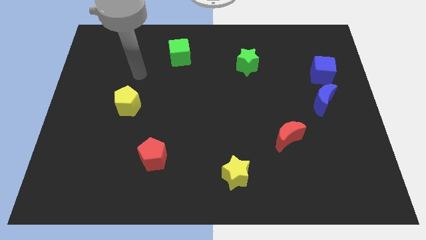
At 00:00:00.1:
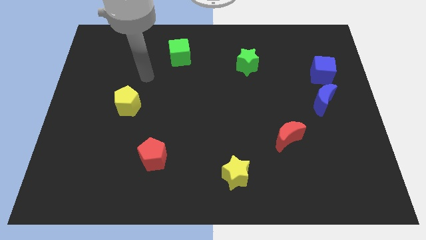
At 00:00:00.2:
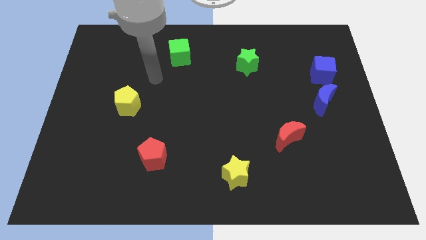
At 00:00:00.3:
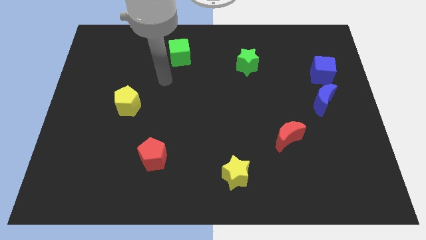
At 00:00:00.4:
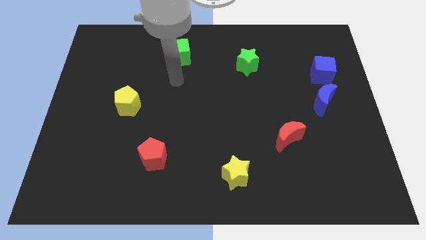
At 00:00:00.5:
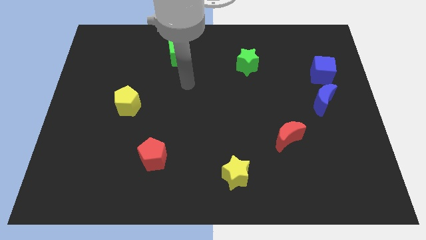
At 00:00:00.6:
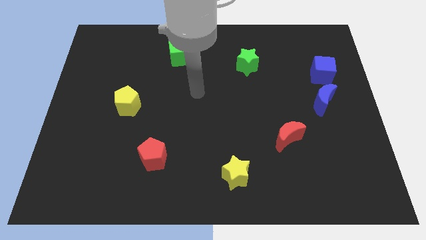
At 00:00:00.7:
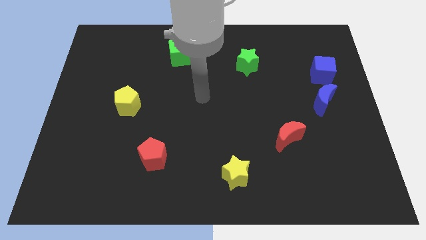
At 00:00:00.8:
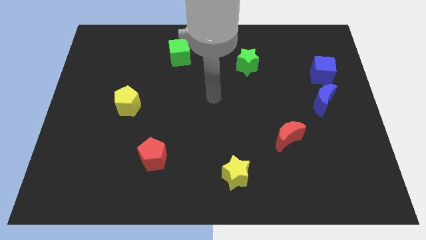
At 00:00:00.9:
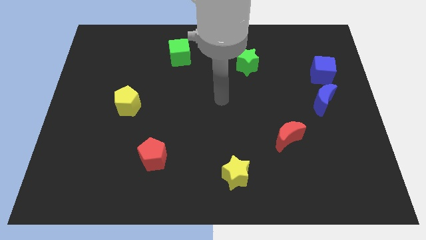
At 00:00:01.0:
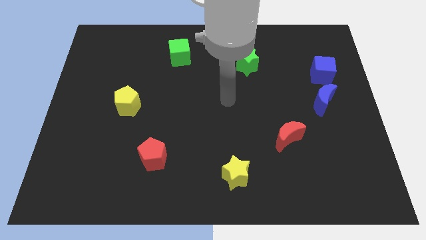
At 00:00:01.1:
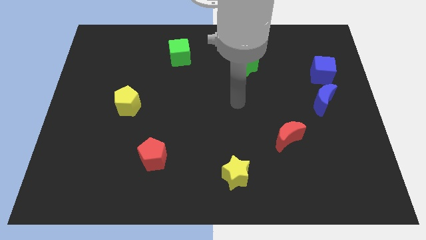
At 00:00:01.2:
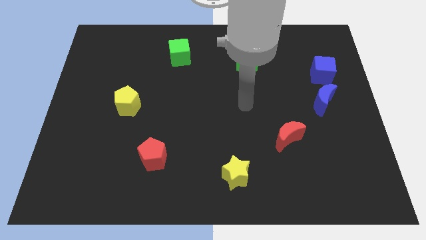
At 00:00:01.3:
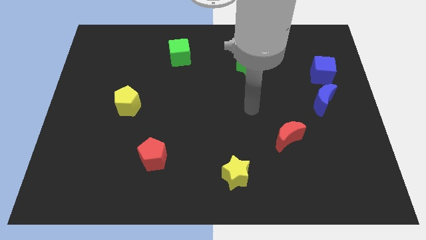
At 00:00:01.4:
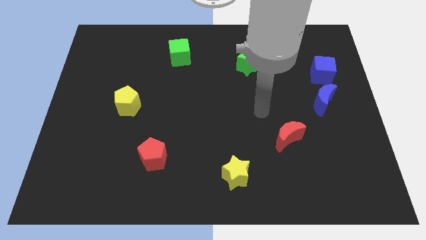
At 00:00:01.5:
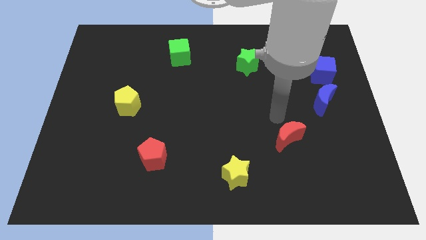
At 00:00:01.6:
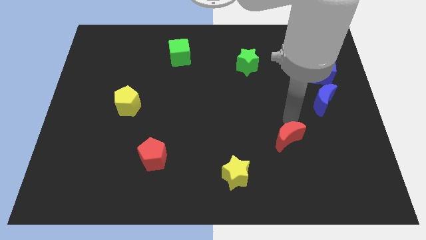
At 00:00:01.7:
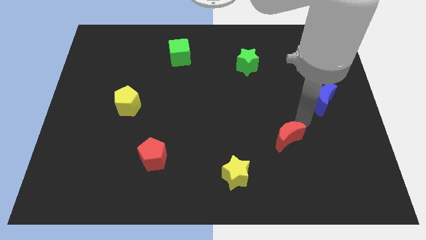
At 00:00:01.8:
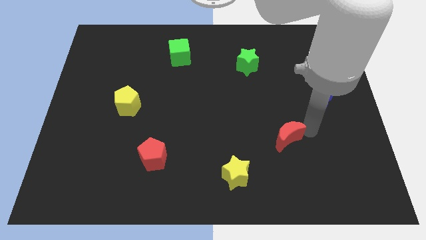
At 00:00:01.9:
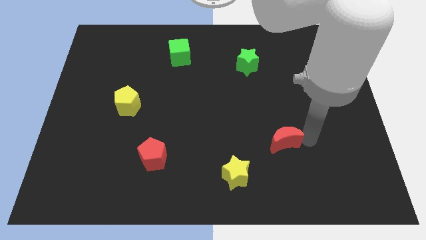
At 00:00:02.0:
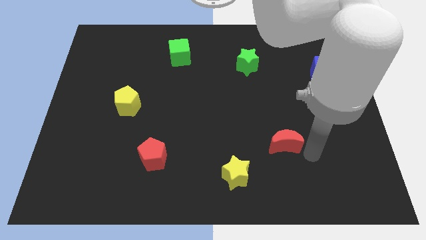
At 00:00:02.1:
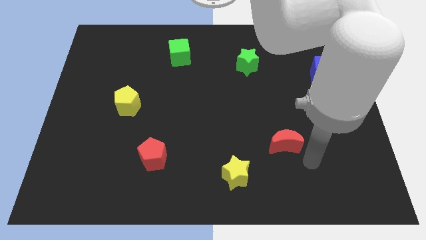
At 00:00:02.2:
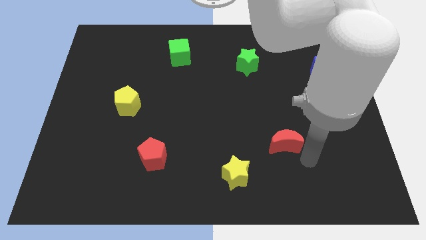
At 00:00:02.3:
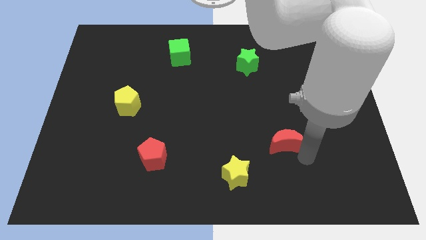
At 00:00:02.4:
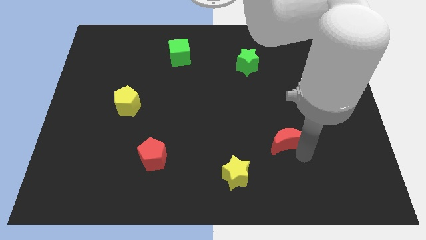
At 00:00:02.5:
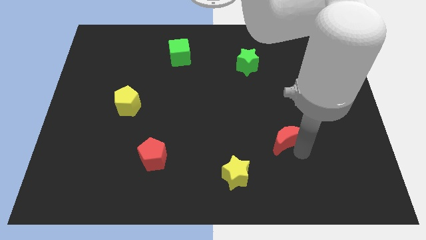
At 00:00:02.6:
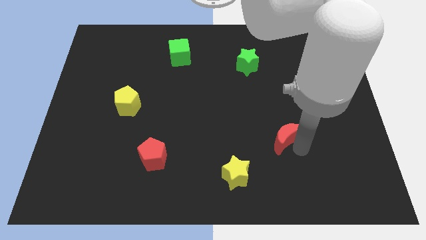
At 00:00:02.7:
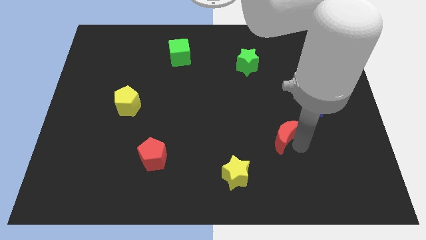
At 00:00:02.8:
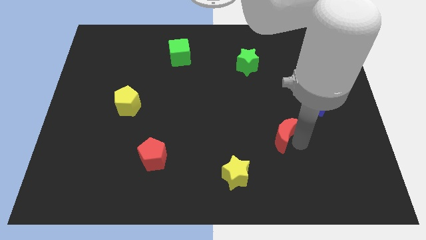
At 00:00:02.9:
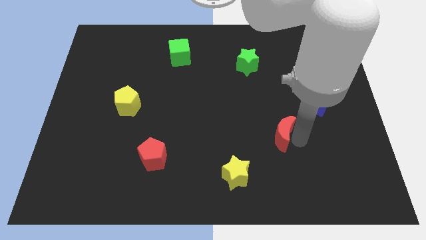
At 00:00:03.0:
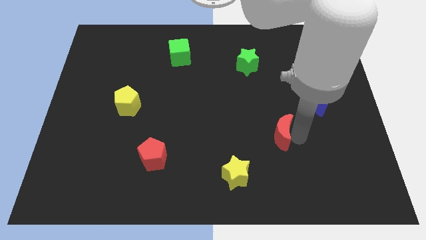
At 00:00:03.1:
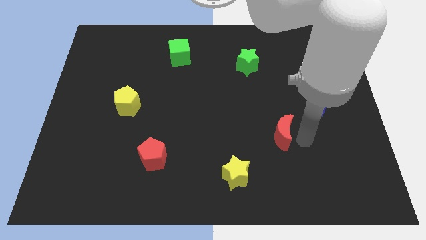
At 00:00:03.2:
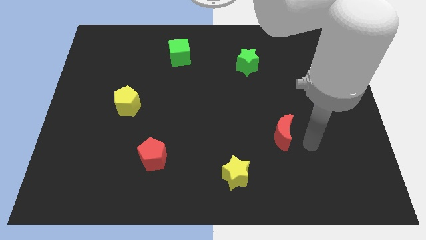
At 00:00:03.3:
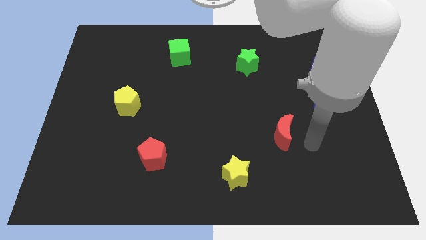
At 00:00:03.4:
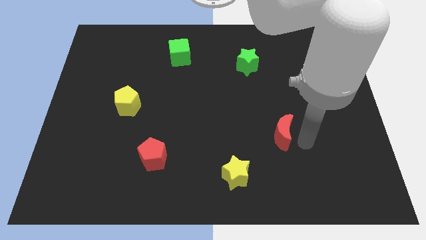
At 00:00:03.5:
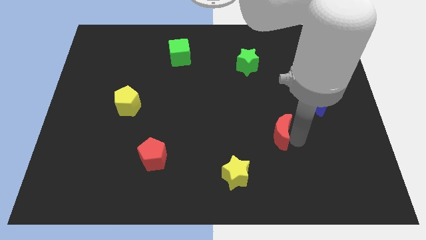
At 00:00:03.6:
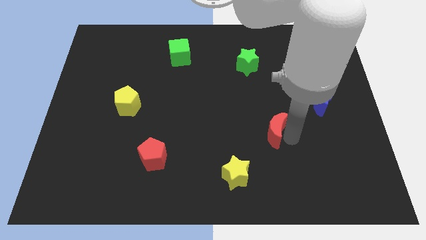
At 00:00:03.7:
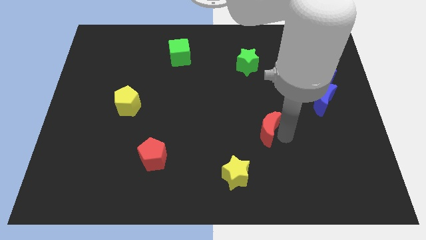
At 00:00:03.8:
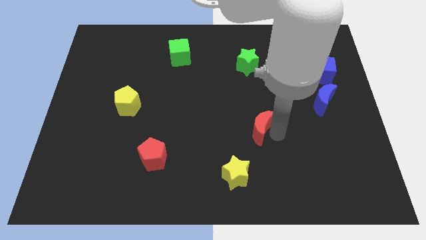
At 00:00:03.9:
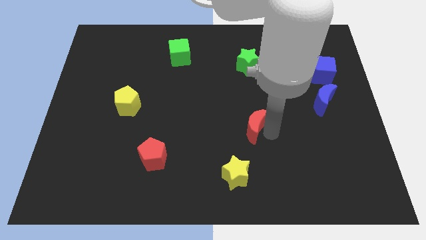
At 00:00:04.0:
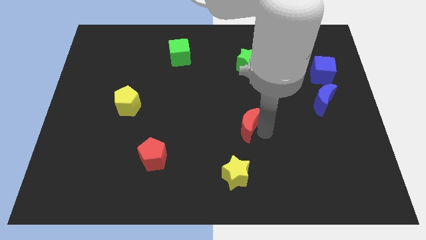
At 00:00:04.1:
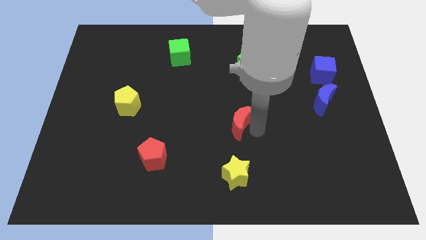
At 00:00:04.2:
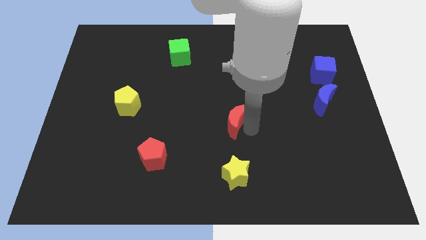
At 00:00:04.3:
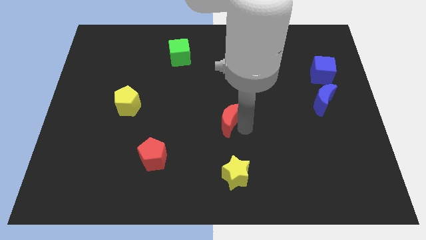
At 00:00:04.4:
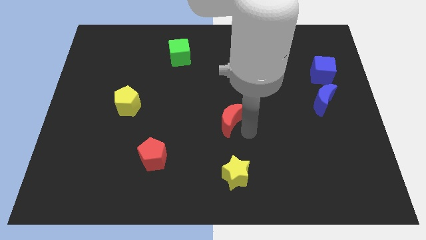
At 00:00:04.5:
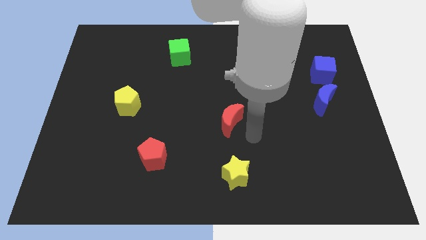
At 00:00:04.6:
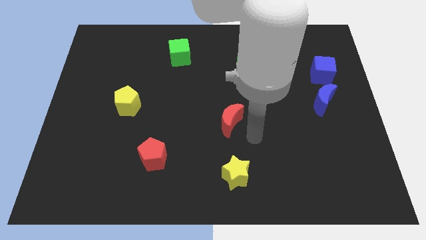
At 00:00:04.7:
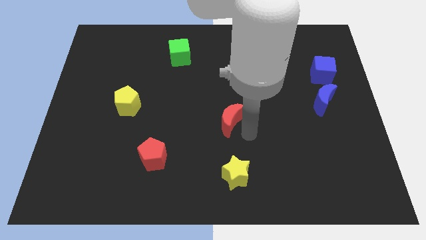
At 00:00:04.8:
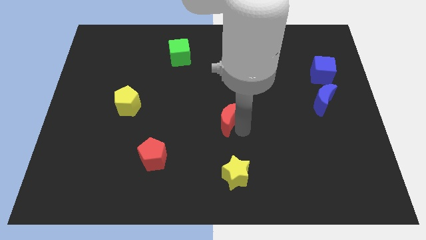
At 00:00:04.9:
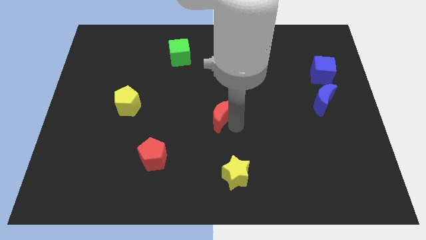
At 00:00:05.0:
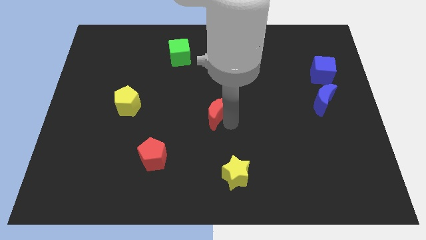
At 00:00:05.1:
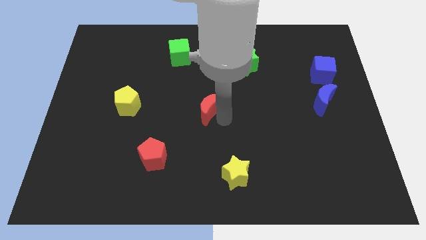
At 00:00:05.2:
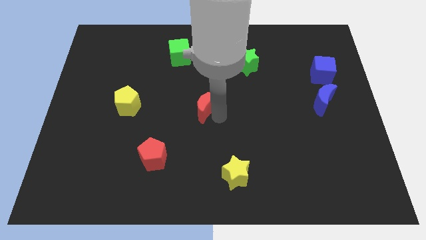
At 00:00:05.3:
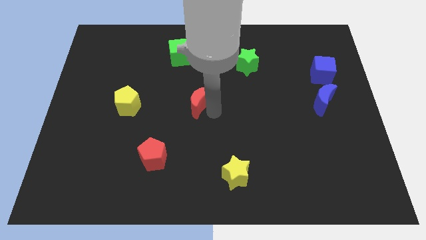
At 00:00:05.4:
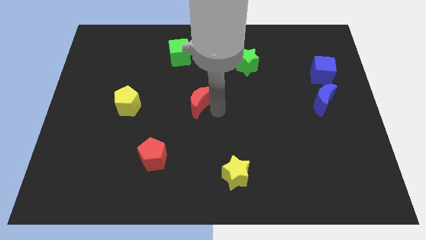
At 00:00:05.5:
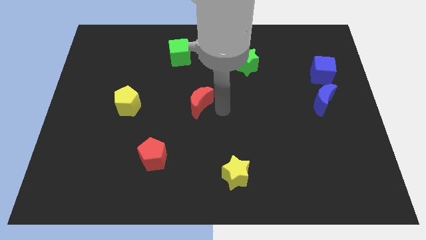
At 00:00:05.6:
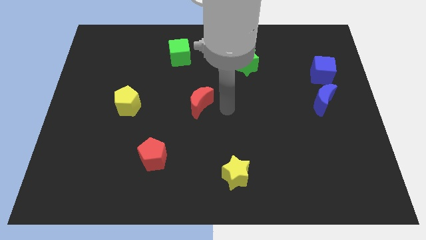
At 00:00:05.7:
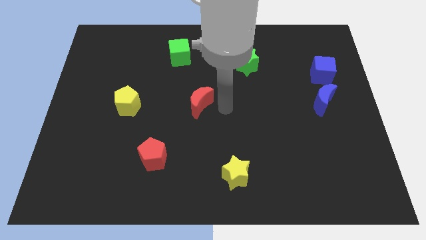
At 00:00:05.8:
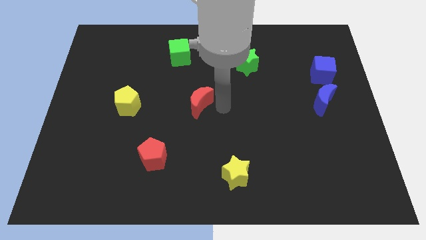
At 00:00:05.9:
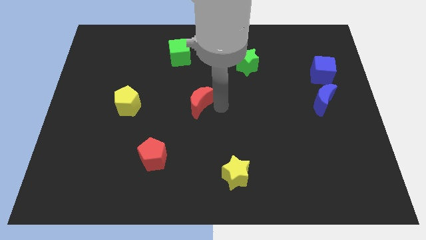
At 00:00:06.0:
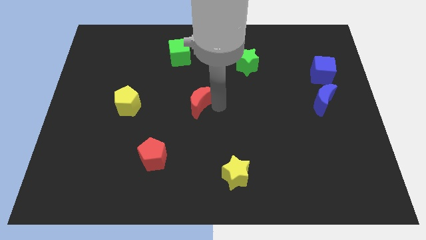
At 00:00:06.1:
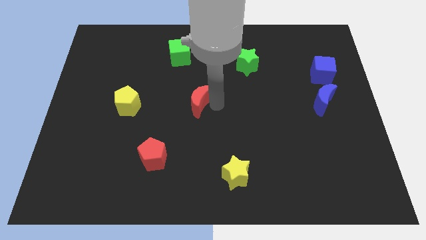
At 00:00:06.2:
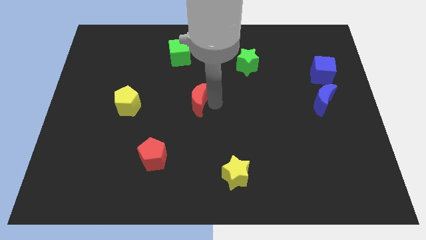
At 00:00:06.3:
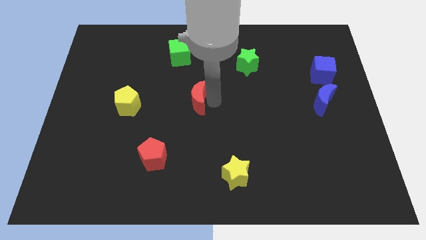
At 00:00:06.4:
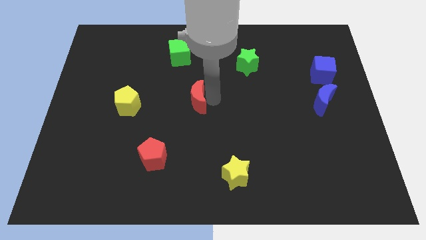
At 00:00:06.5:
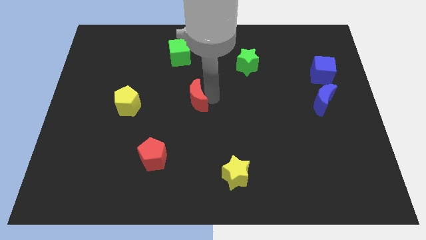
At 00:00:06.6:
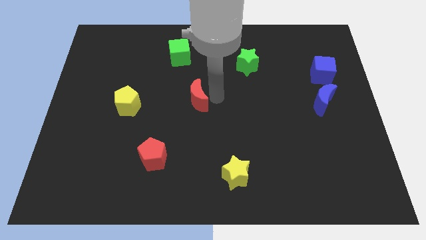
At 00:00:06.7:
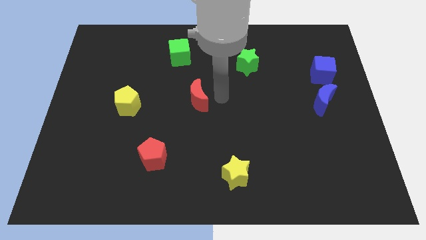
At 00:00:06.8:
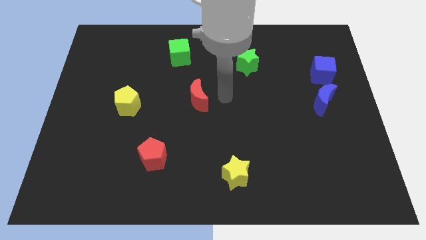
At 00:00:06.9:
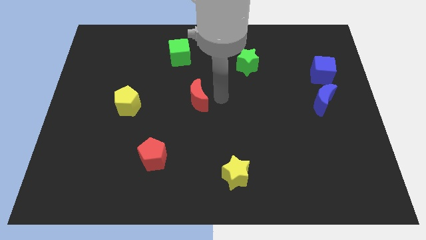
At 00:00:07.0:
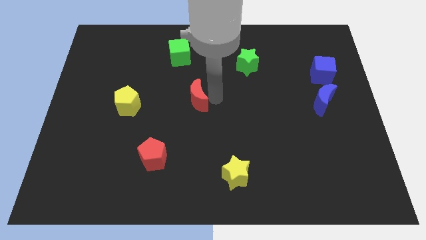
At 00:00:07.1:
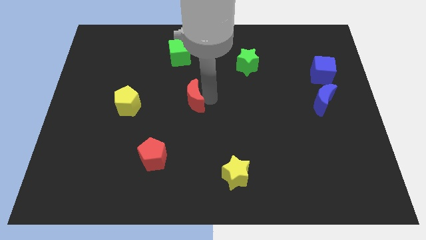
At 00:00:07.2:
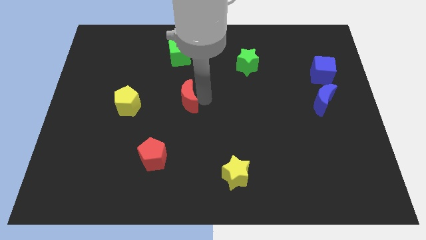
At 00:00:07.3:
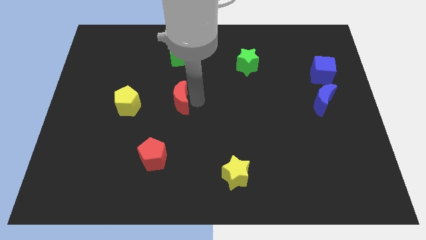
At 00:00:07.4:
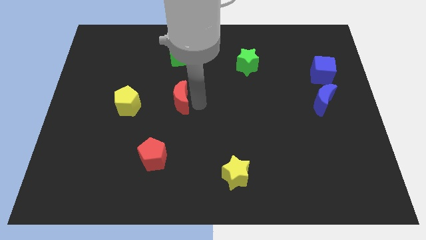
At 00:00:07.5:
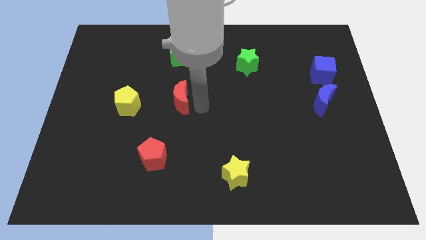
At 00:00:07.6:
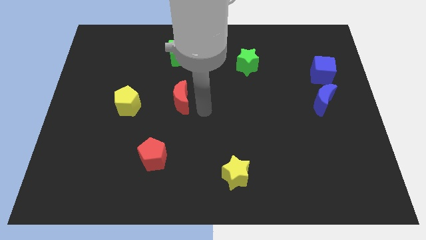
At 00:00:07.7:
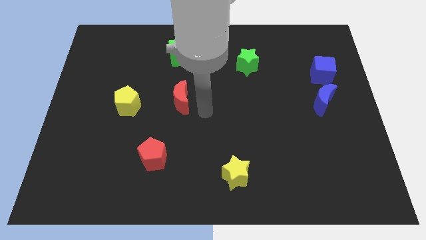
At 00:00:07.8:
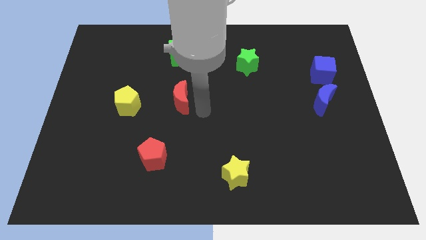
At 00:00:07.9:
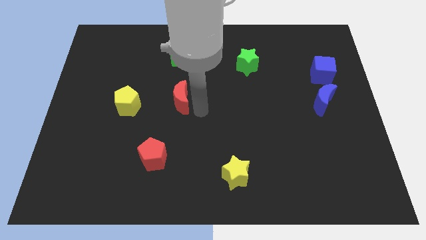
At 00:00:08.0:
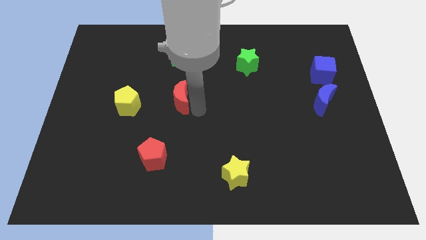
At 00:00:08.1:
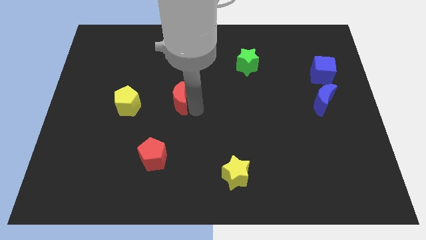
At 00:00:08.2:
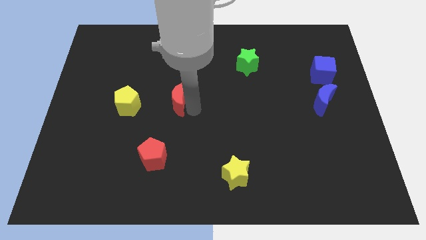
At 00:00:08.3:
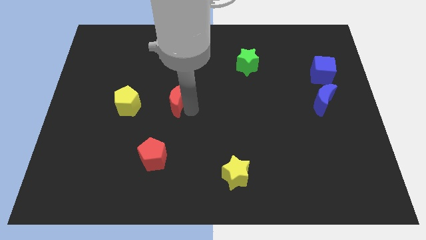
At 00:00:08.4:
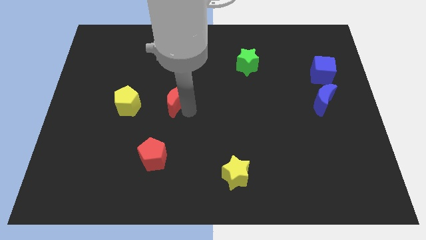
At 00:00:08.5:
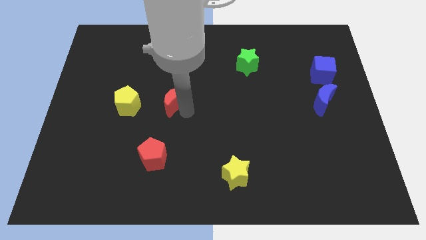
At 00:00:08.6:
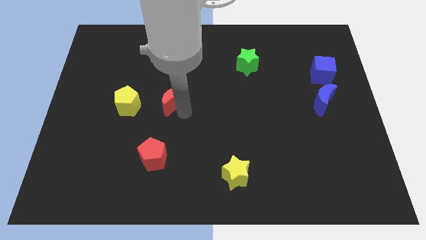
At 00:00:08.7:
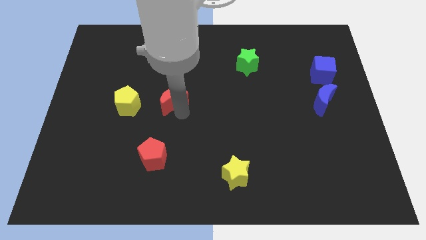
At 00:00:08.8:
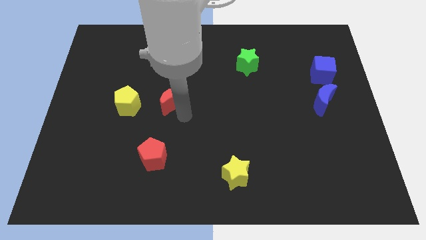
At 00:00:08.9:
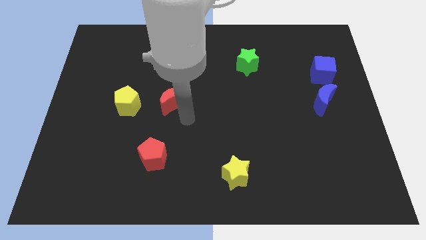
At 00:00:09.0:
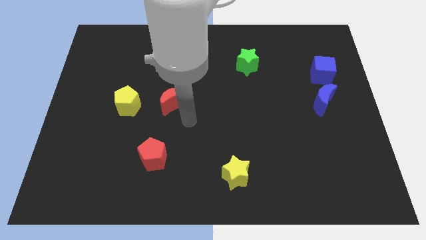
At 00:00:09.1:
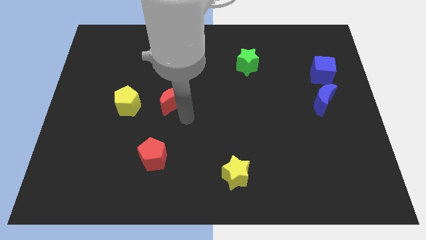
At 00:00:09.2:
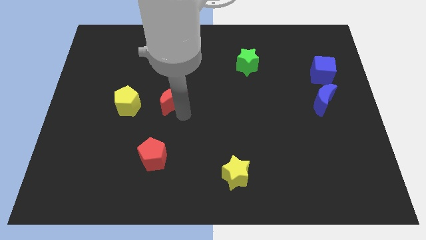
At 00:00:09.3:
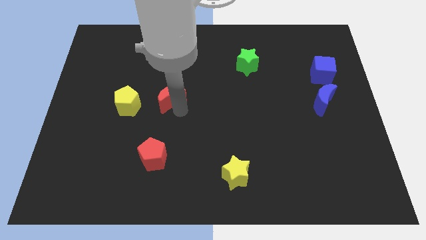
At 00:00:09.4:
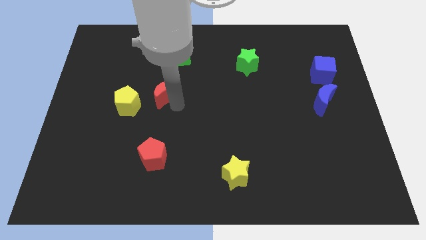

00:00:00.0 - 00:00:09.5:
put the red moon diagonally up and to the right of the yellow pentagon
